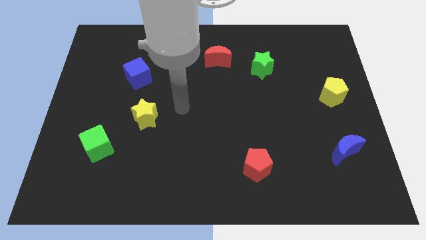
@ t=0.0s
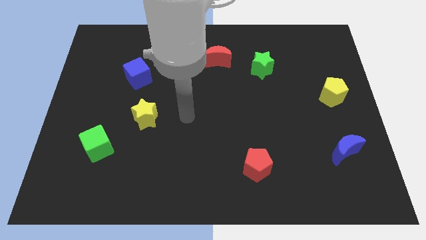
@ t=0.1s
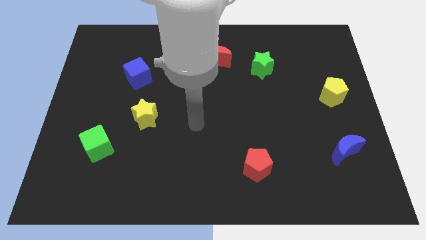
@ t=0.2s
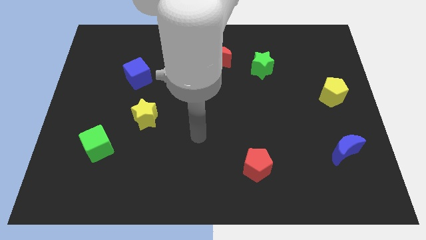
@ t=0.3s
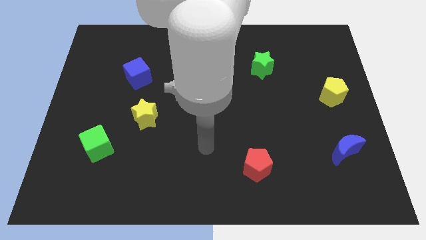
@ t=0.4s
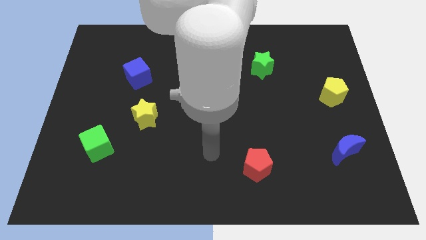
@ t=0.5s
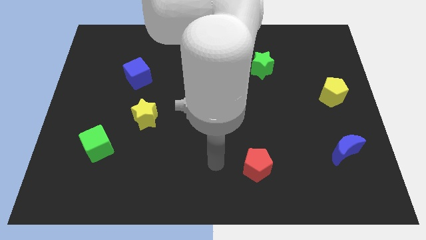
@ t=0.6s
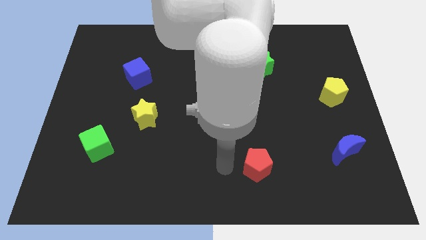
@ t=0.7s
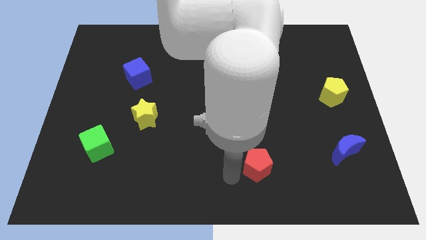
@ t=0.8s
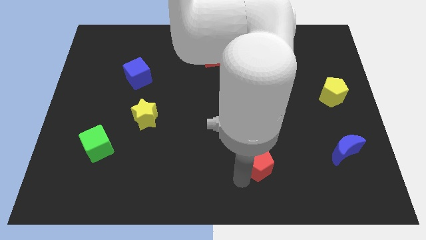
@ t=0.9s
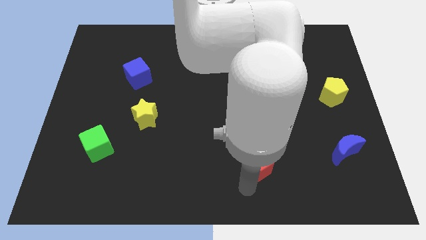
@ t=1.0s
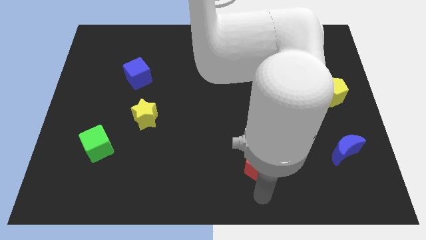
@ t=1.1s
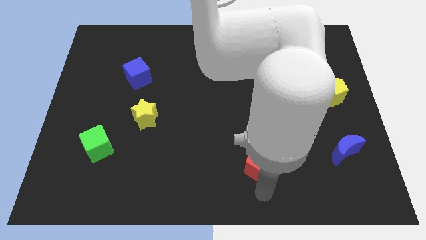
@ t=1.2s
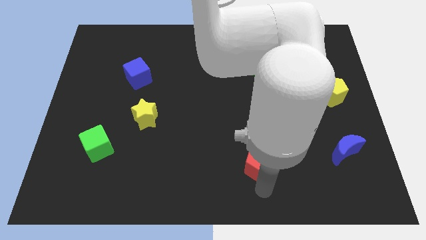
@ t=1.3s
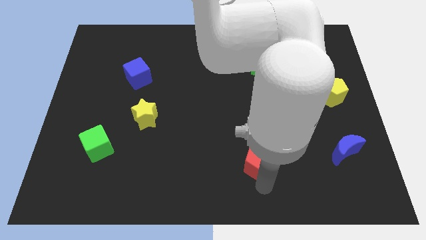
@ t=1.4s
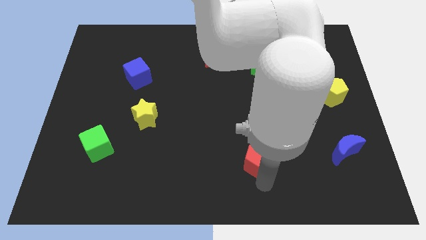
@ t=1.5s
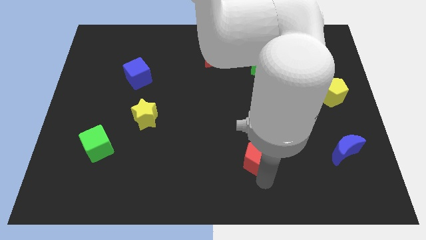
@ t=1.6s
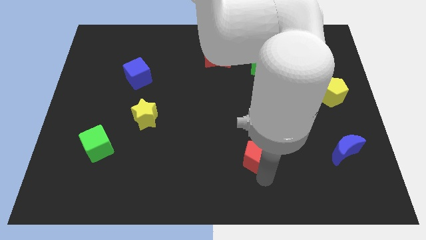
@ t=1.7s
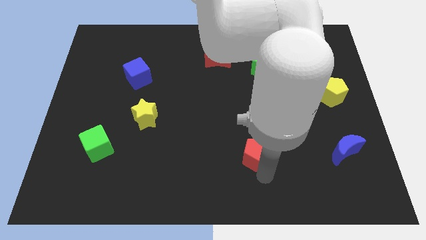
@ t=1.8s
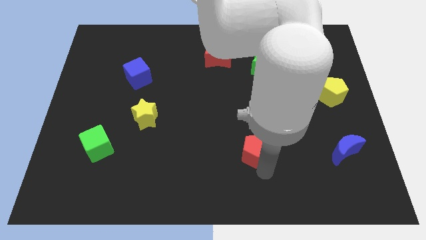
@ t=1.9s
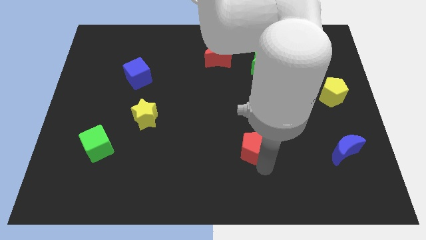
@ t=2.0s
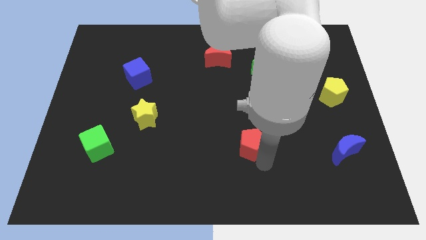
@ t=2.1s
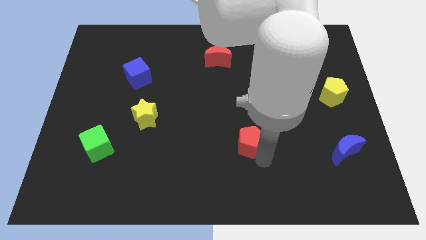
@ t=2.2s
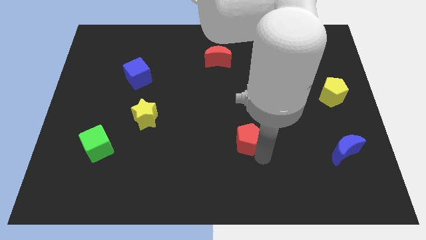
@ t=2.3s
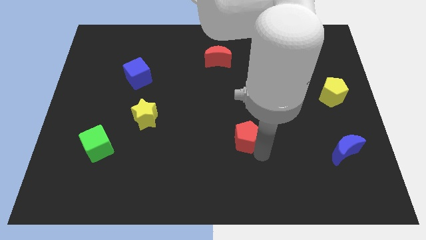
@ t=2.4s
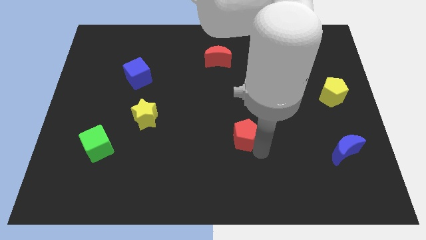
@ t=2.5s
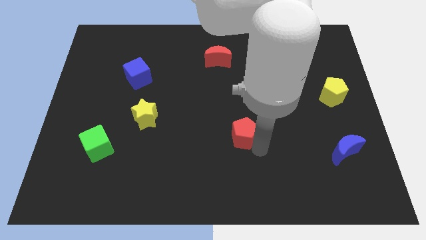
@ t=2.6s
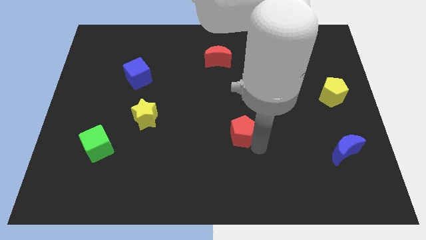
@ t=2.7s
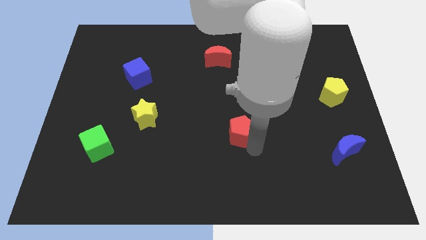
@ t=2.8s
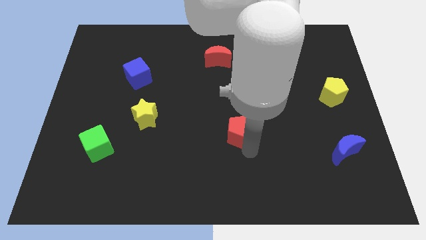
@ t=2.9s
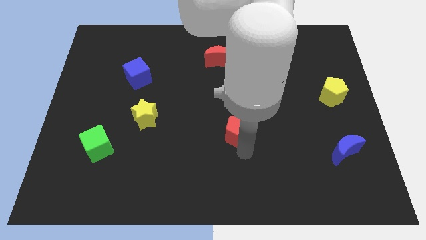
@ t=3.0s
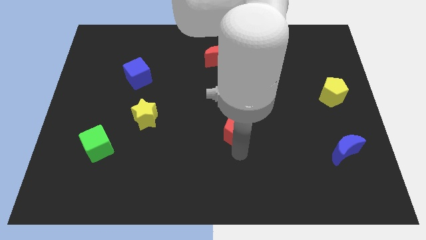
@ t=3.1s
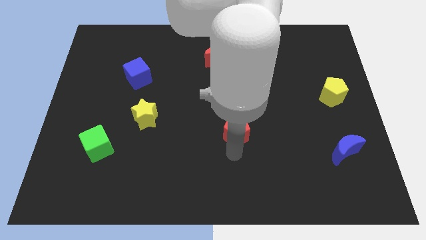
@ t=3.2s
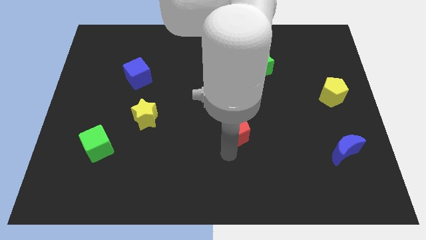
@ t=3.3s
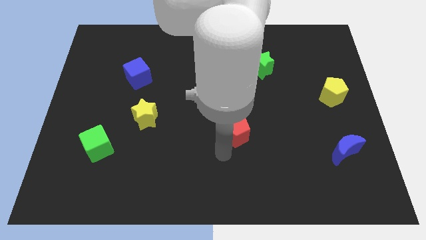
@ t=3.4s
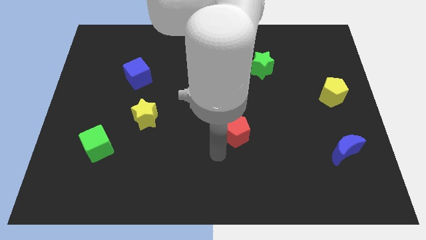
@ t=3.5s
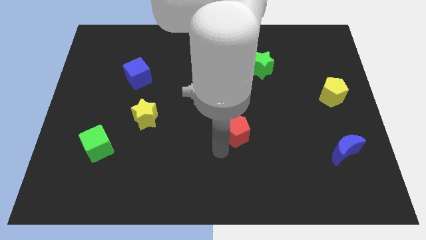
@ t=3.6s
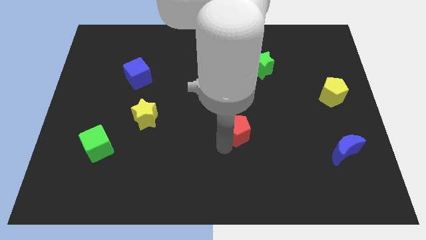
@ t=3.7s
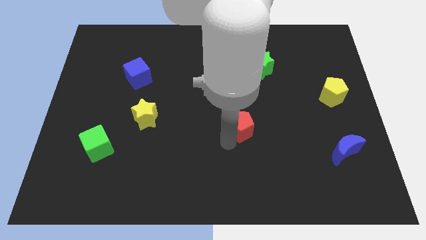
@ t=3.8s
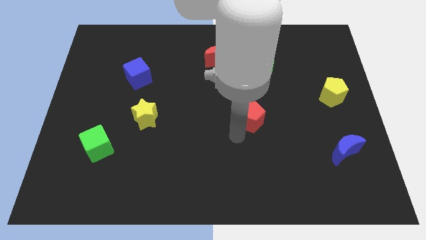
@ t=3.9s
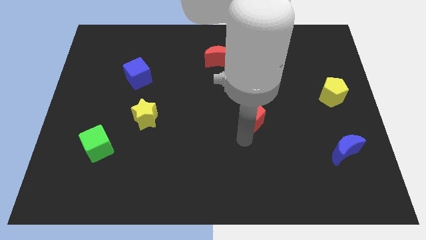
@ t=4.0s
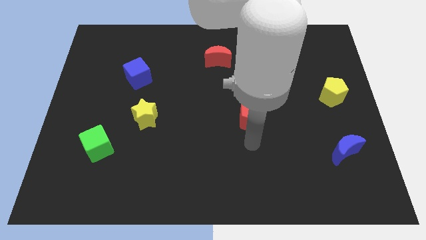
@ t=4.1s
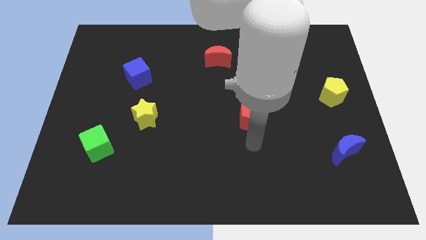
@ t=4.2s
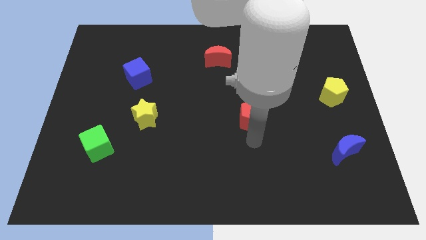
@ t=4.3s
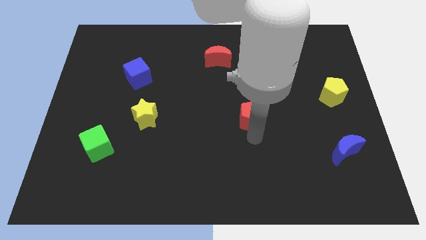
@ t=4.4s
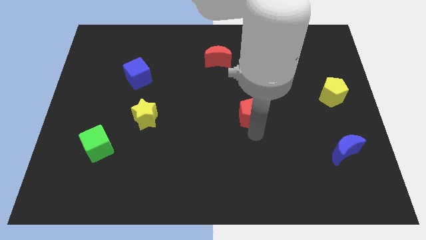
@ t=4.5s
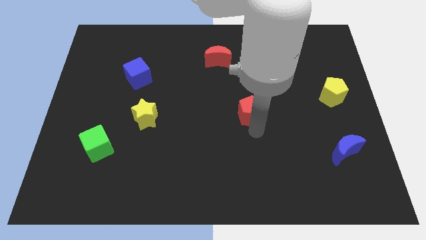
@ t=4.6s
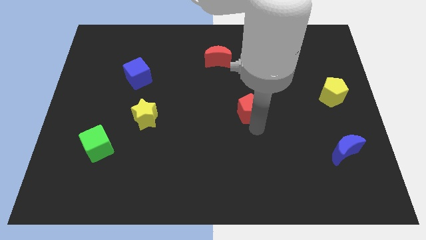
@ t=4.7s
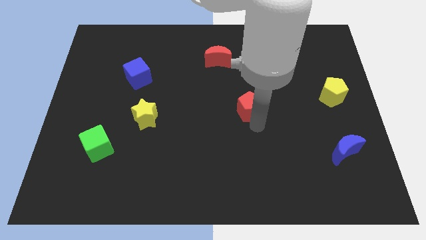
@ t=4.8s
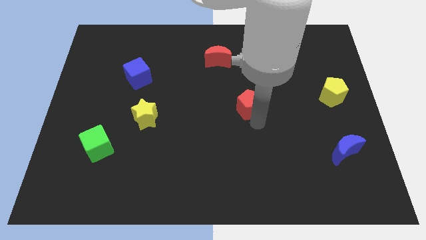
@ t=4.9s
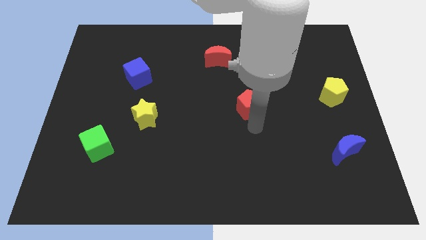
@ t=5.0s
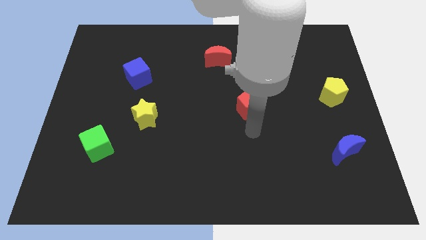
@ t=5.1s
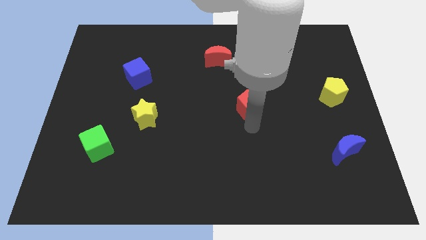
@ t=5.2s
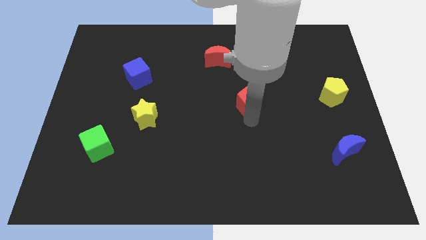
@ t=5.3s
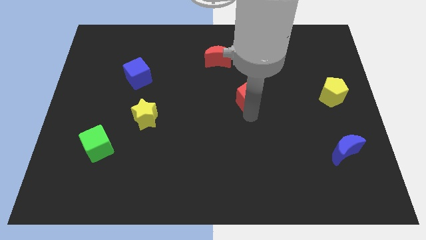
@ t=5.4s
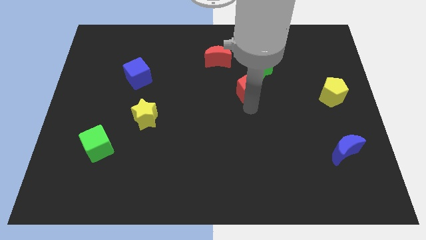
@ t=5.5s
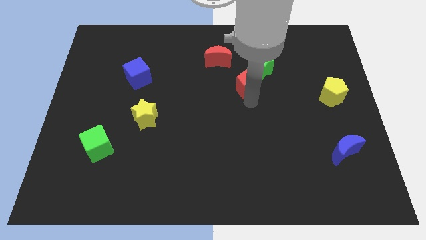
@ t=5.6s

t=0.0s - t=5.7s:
put the red pentagon diagonally down and to the right of the red moon
